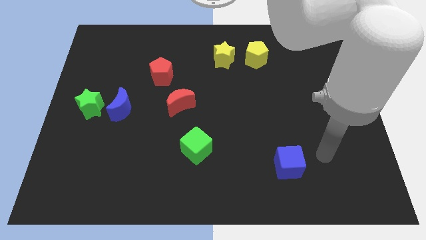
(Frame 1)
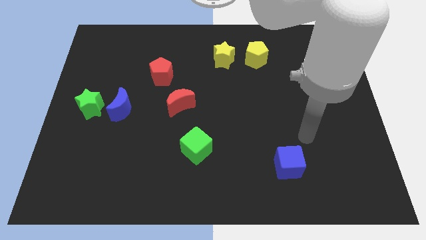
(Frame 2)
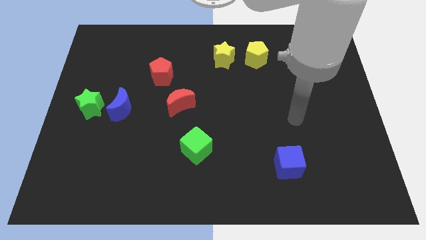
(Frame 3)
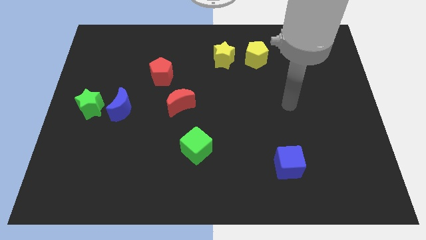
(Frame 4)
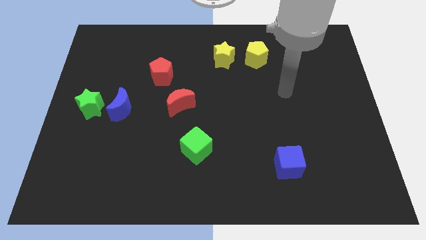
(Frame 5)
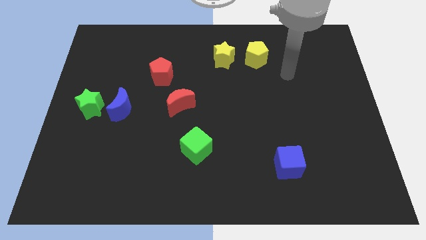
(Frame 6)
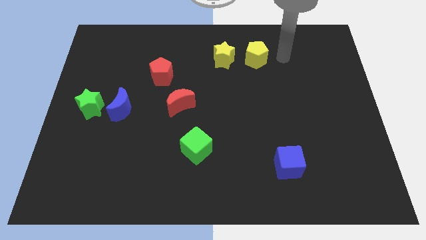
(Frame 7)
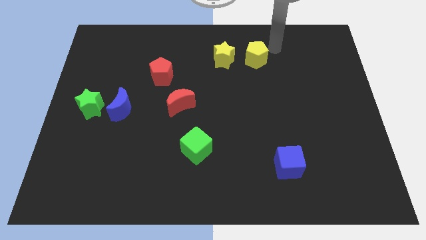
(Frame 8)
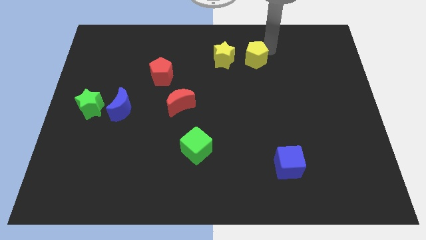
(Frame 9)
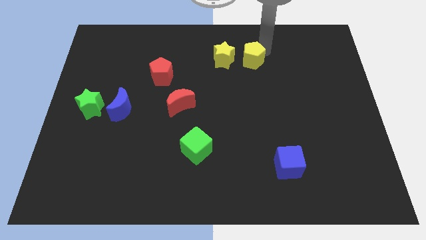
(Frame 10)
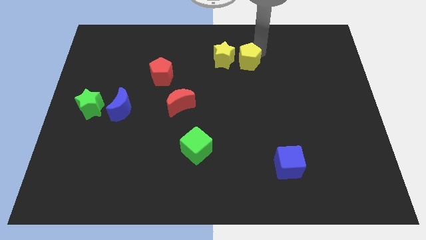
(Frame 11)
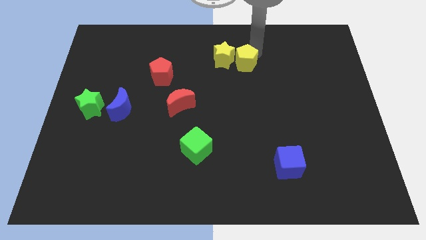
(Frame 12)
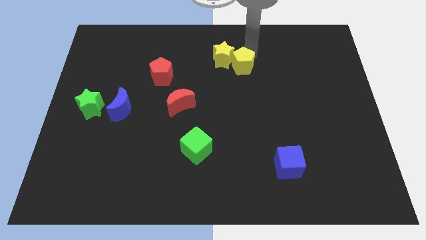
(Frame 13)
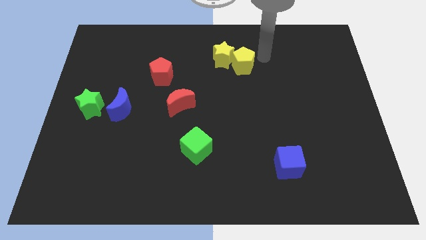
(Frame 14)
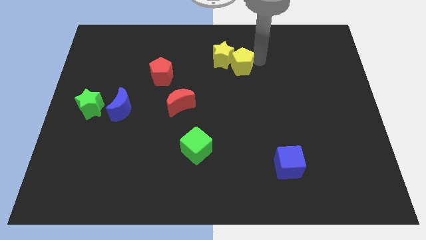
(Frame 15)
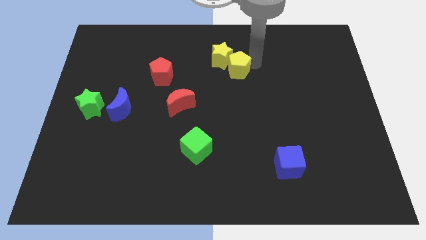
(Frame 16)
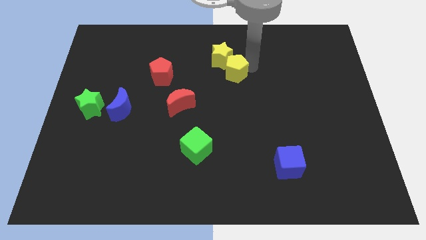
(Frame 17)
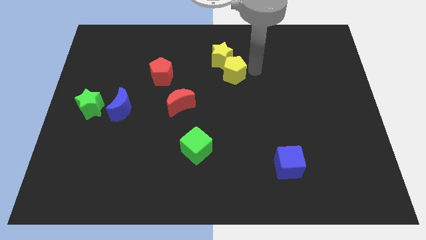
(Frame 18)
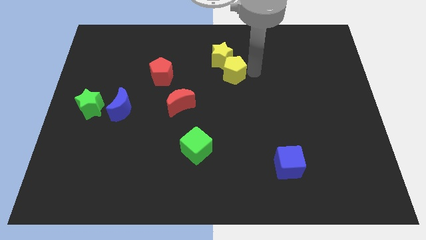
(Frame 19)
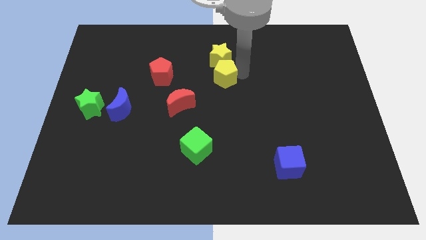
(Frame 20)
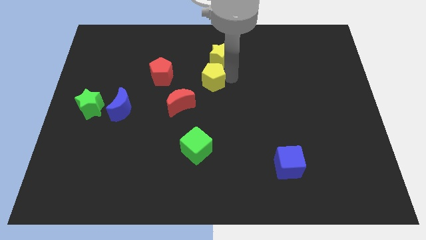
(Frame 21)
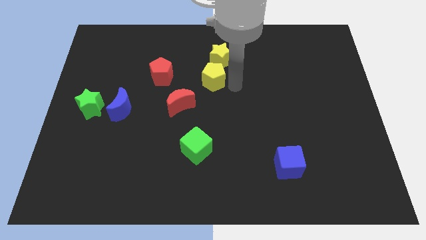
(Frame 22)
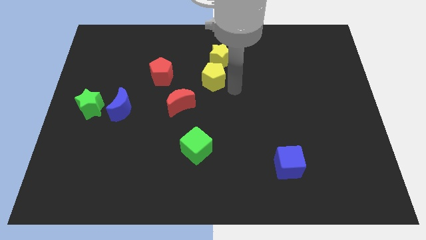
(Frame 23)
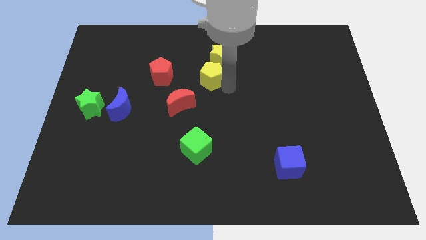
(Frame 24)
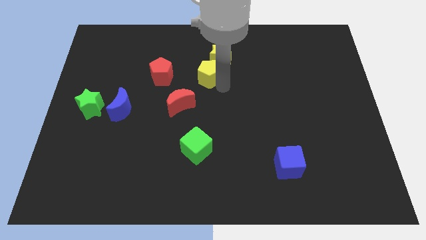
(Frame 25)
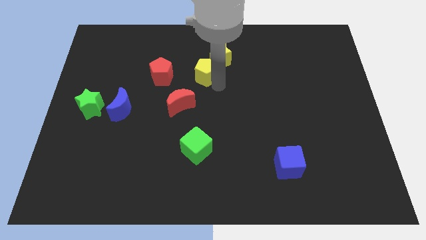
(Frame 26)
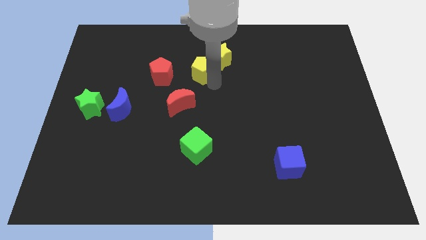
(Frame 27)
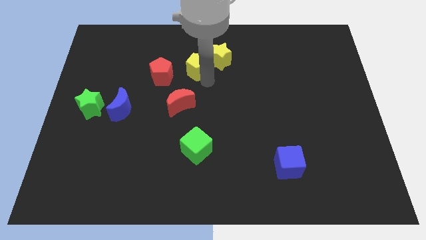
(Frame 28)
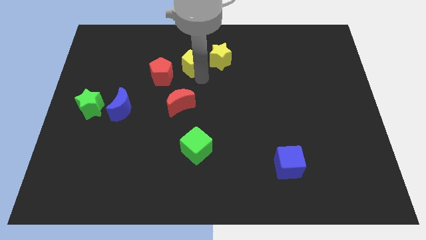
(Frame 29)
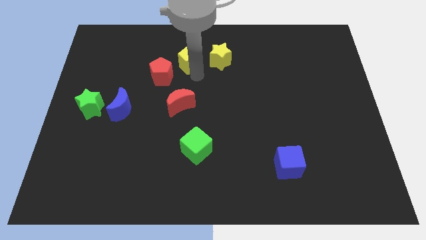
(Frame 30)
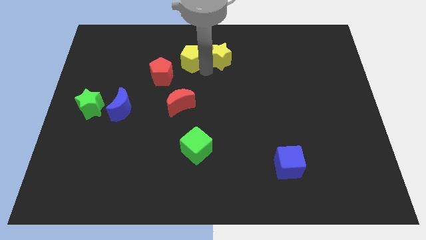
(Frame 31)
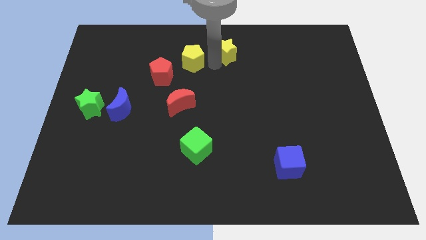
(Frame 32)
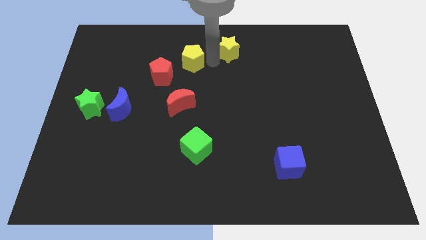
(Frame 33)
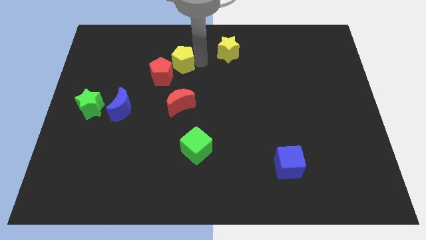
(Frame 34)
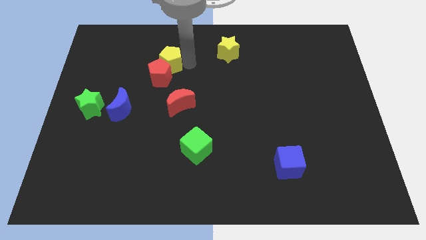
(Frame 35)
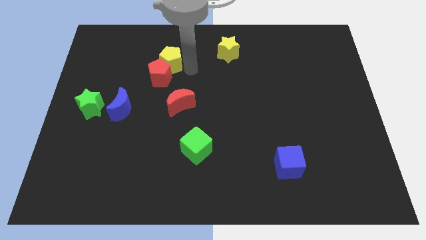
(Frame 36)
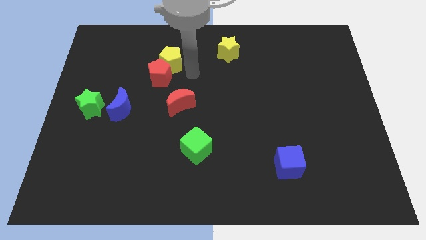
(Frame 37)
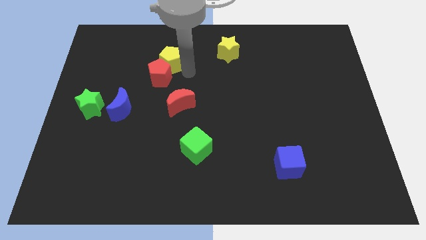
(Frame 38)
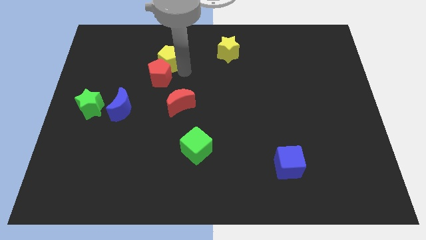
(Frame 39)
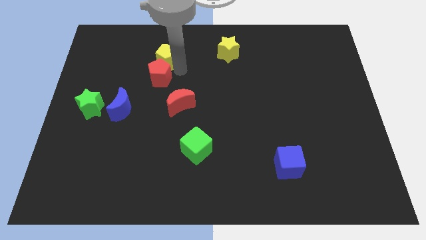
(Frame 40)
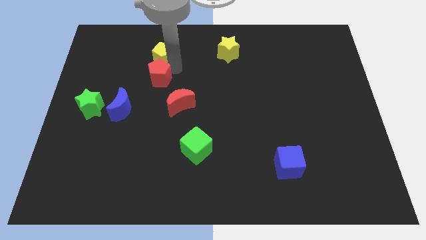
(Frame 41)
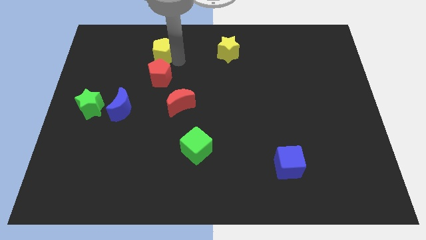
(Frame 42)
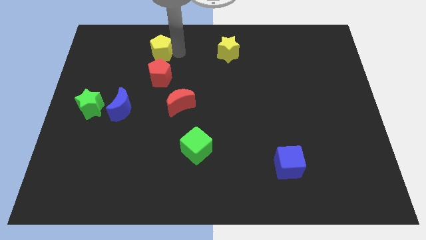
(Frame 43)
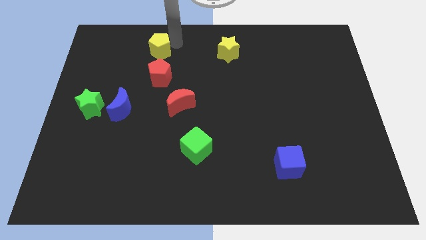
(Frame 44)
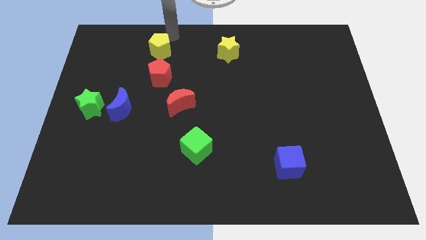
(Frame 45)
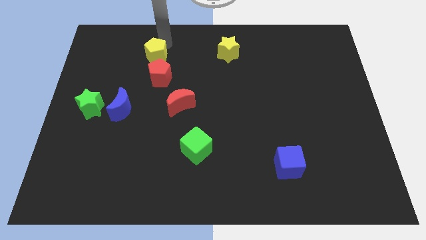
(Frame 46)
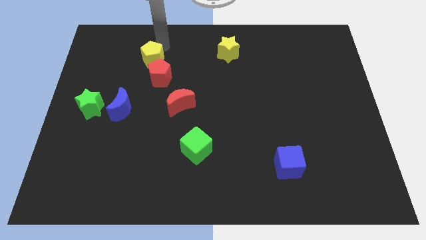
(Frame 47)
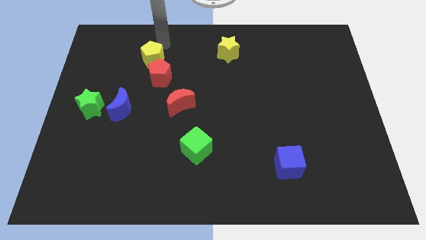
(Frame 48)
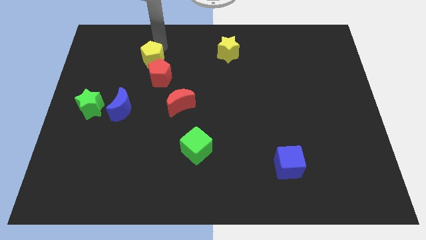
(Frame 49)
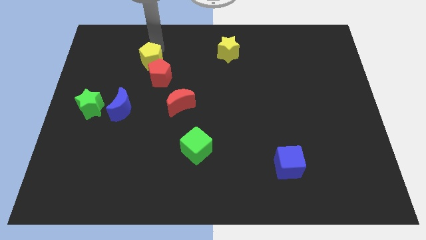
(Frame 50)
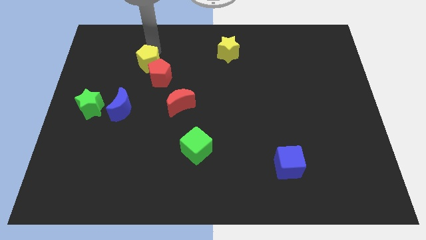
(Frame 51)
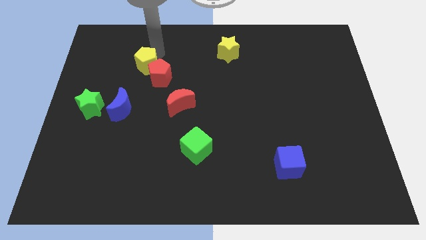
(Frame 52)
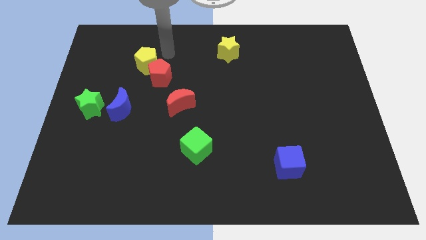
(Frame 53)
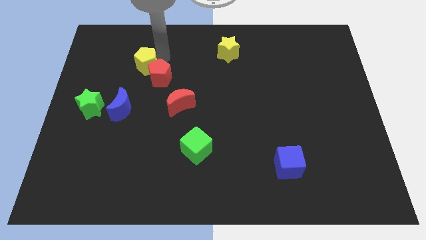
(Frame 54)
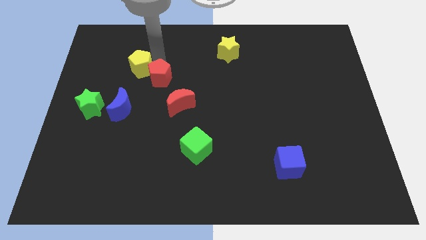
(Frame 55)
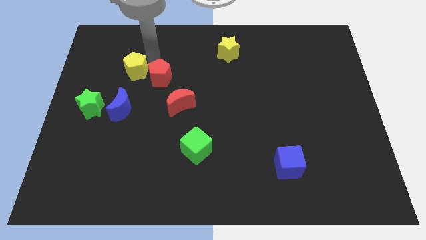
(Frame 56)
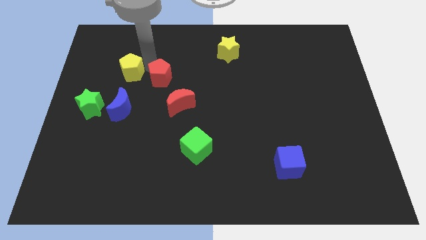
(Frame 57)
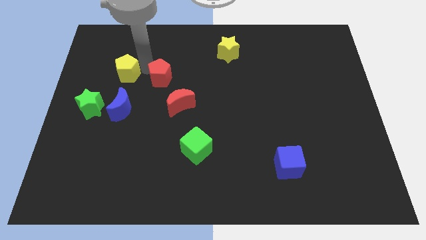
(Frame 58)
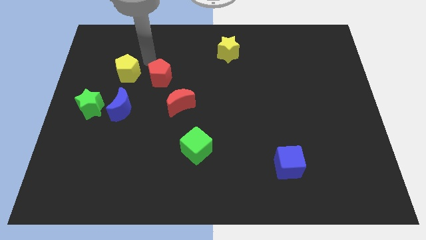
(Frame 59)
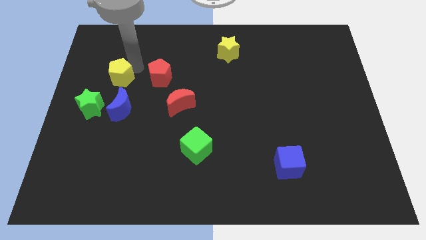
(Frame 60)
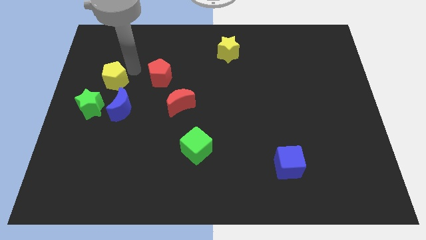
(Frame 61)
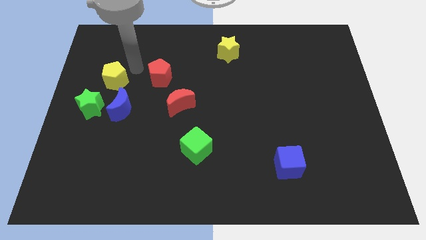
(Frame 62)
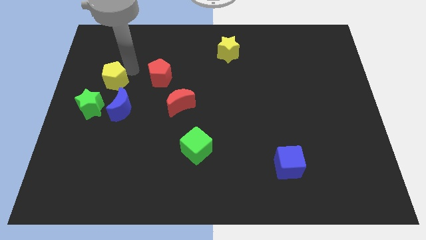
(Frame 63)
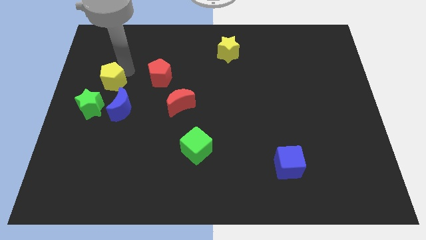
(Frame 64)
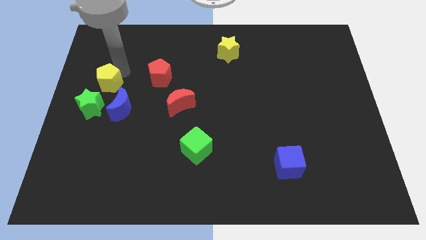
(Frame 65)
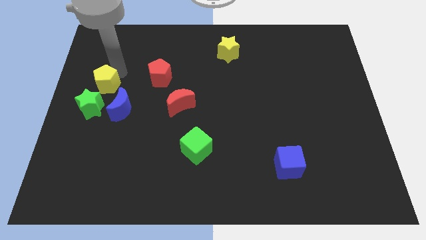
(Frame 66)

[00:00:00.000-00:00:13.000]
slide the yellow pentagon to the left side of the board

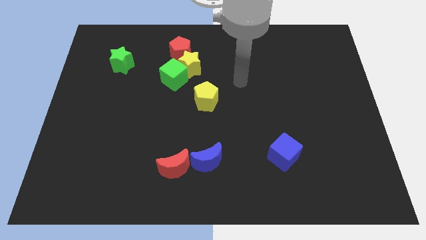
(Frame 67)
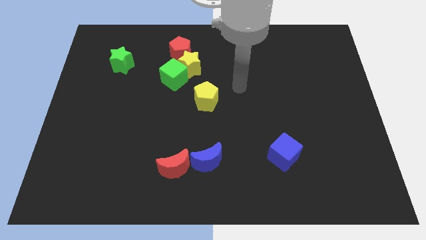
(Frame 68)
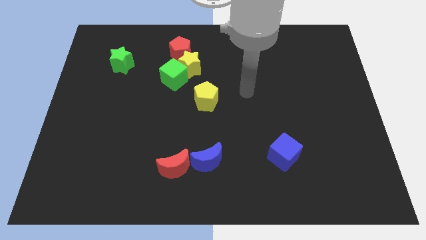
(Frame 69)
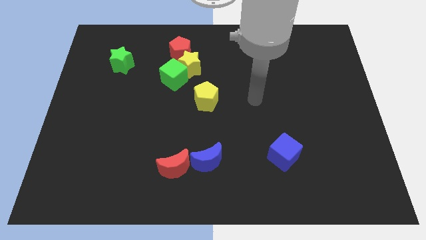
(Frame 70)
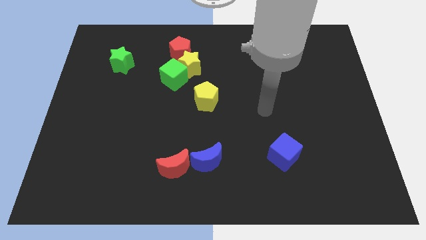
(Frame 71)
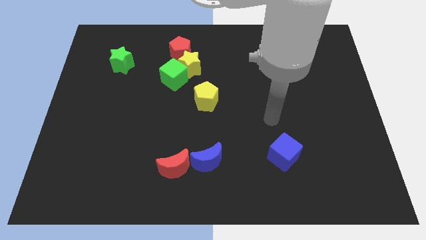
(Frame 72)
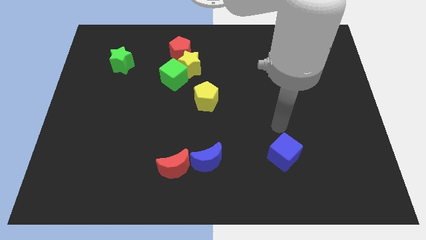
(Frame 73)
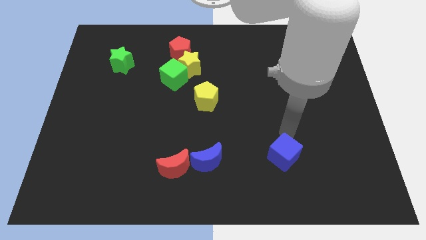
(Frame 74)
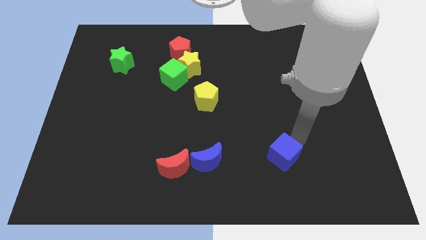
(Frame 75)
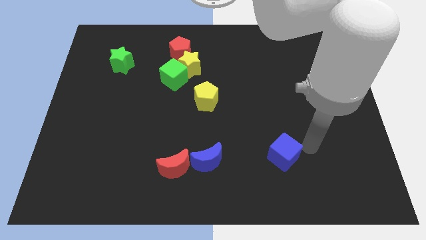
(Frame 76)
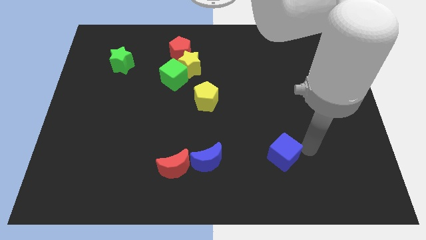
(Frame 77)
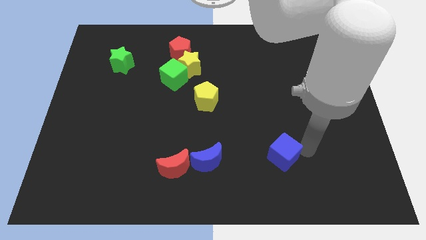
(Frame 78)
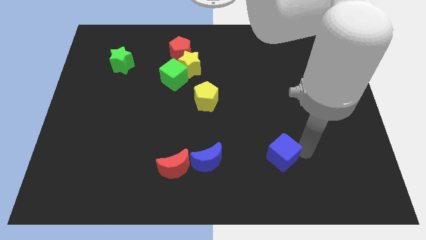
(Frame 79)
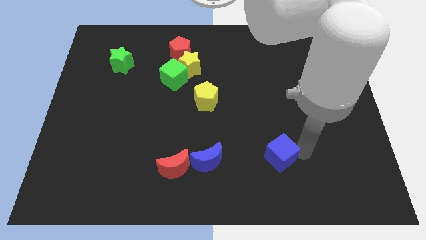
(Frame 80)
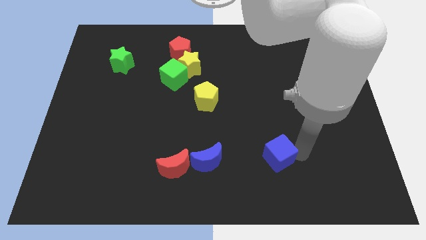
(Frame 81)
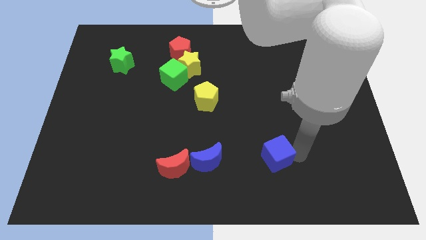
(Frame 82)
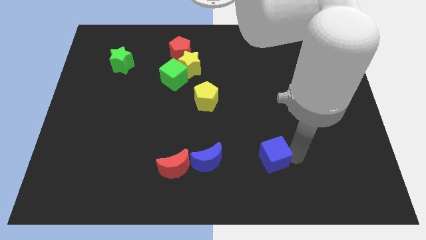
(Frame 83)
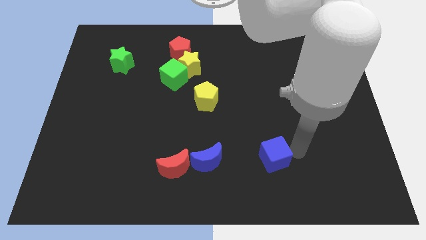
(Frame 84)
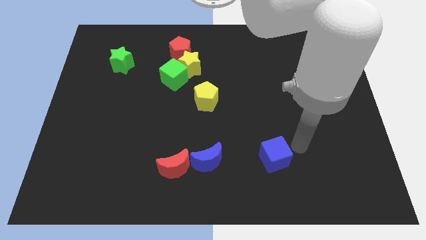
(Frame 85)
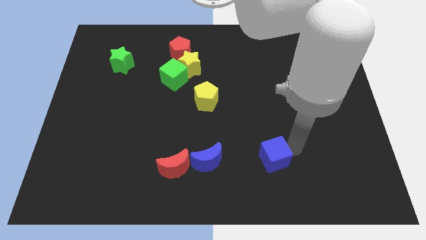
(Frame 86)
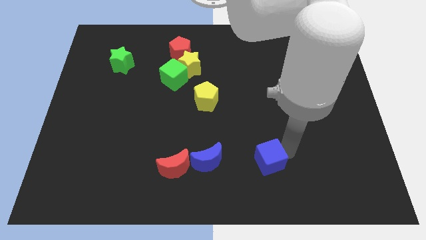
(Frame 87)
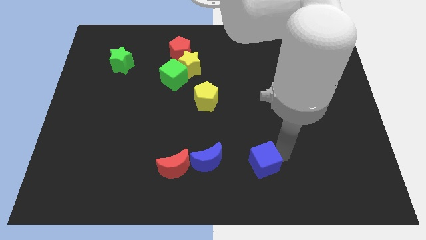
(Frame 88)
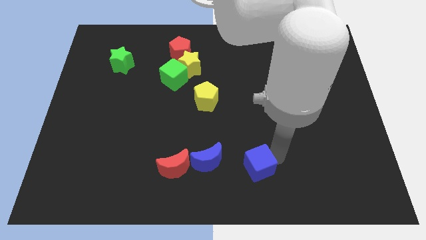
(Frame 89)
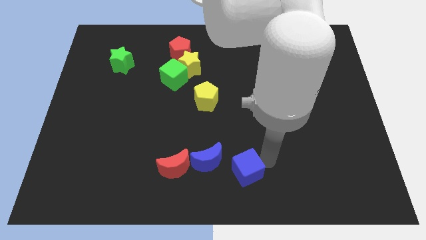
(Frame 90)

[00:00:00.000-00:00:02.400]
move the blue cube to the bottom side
